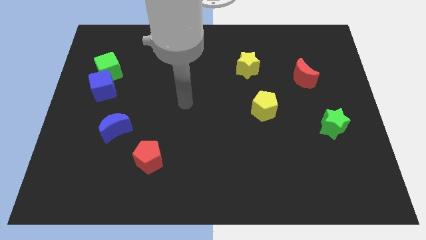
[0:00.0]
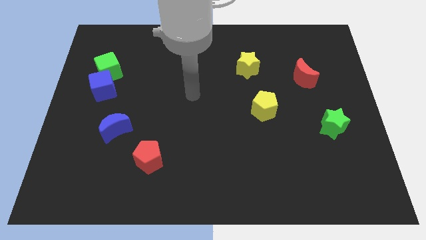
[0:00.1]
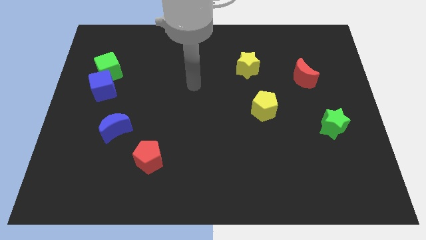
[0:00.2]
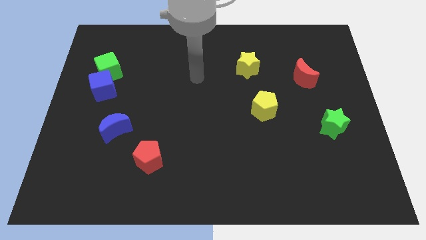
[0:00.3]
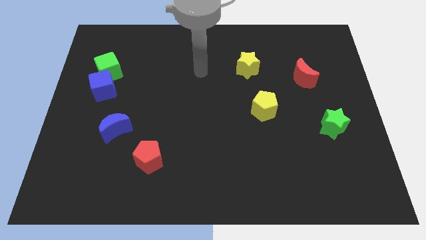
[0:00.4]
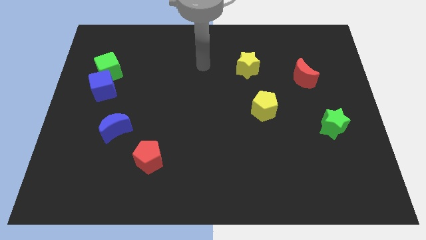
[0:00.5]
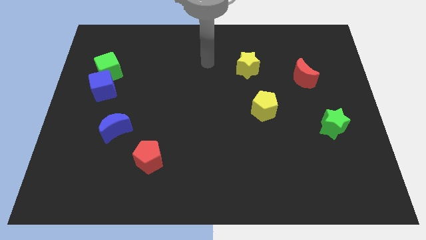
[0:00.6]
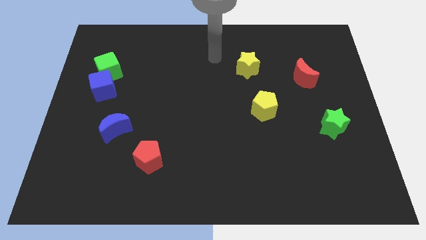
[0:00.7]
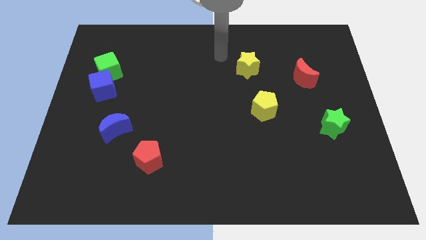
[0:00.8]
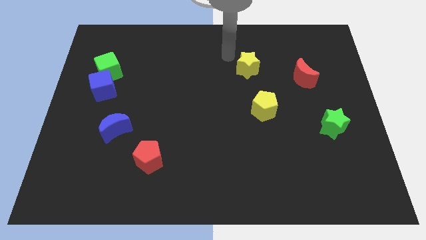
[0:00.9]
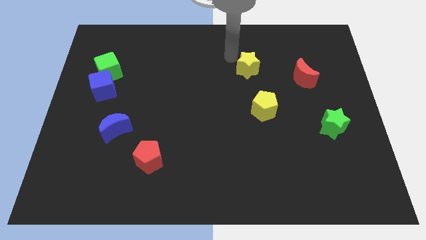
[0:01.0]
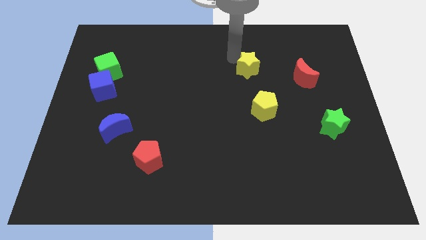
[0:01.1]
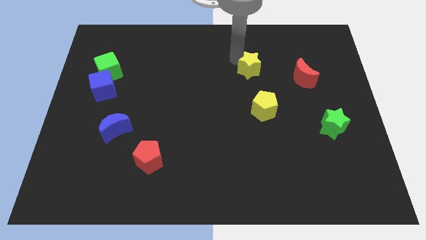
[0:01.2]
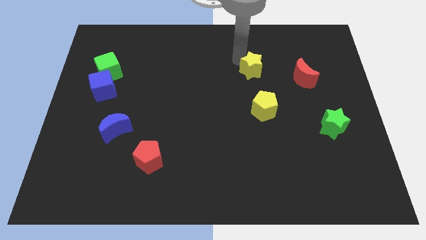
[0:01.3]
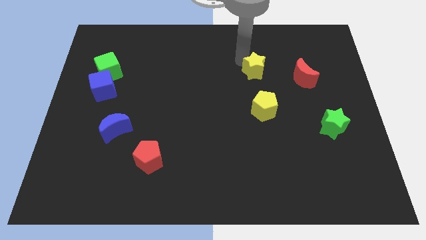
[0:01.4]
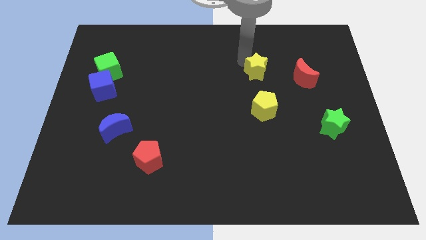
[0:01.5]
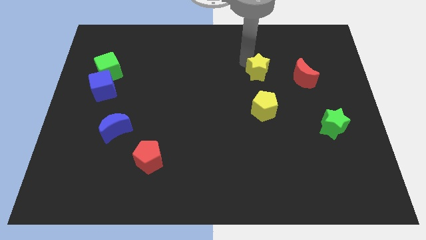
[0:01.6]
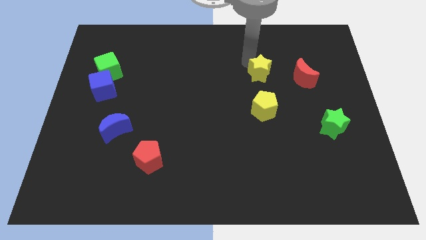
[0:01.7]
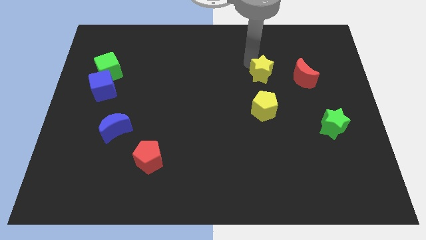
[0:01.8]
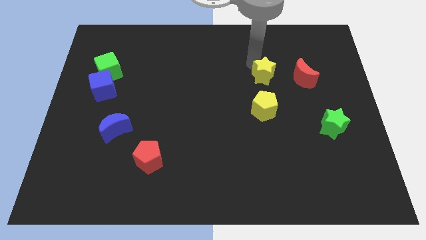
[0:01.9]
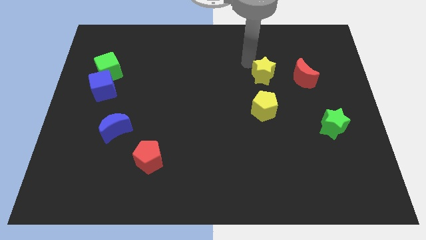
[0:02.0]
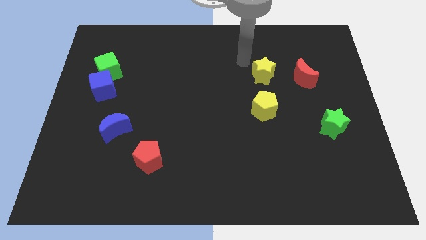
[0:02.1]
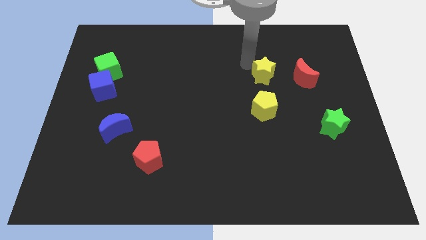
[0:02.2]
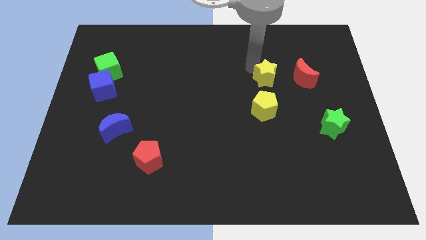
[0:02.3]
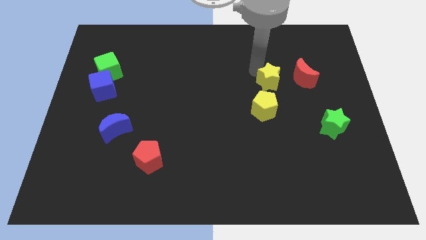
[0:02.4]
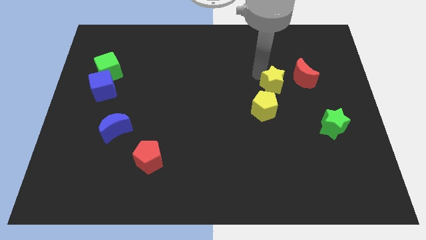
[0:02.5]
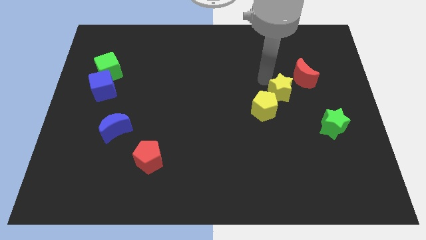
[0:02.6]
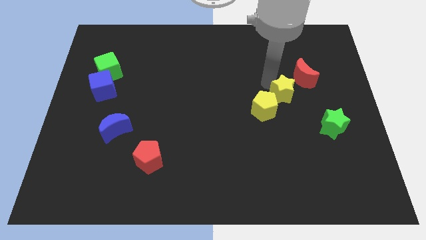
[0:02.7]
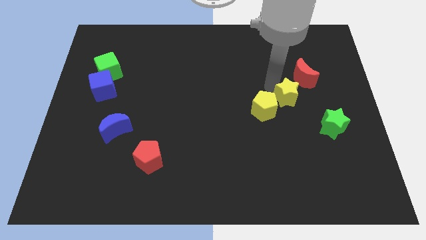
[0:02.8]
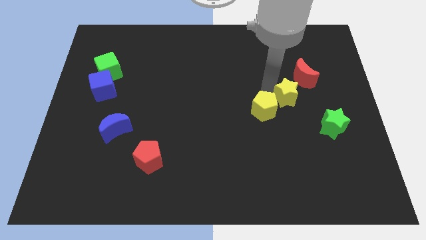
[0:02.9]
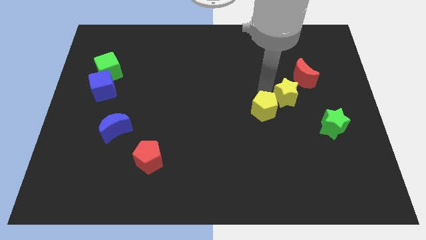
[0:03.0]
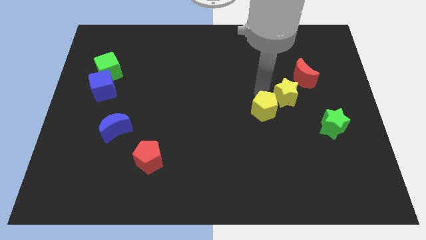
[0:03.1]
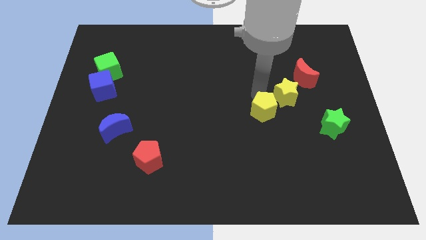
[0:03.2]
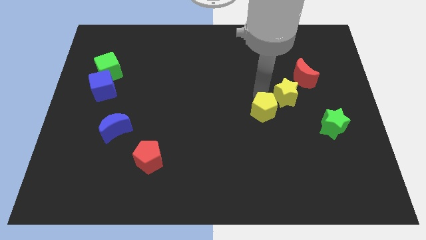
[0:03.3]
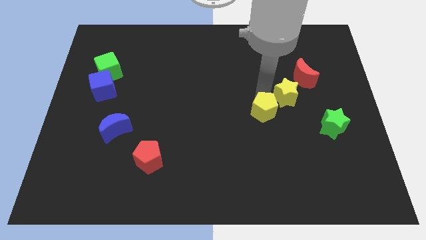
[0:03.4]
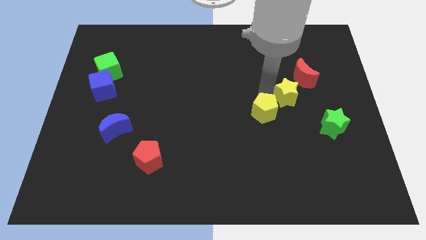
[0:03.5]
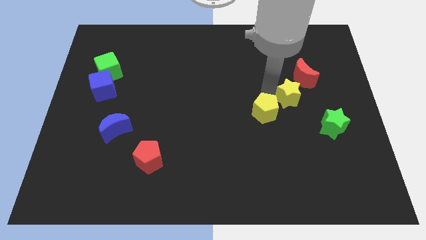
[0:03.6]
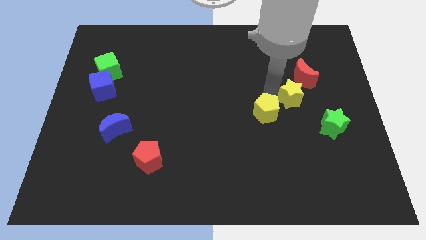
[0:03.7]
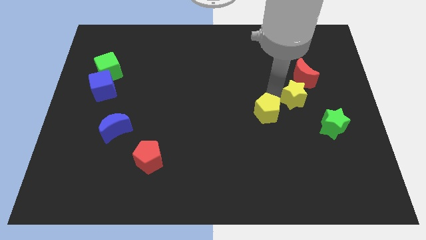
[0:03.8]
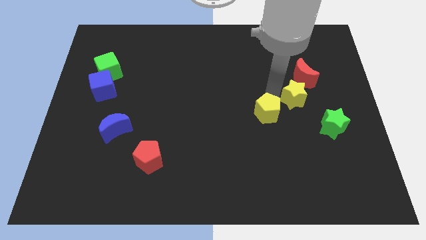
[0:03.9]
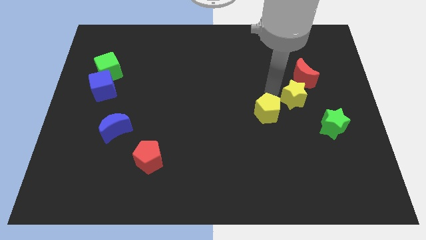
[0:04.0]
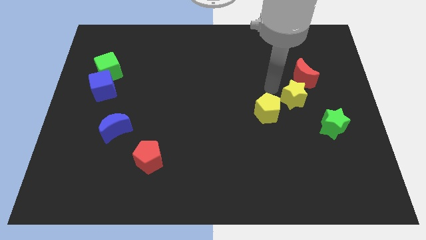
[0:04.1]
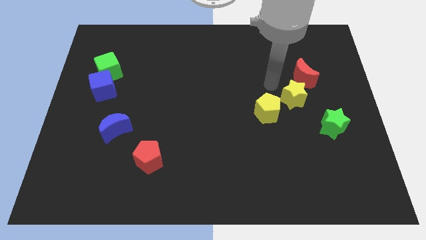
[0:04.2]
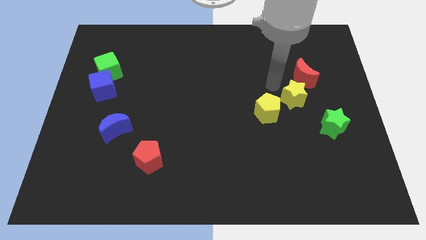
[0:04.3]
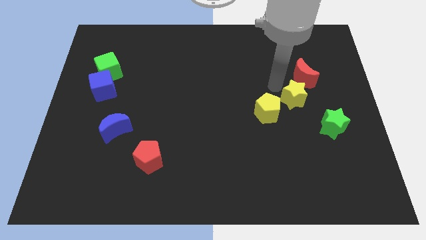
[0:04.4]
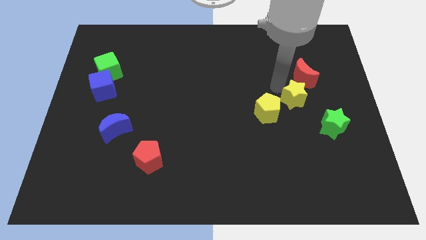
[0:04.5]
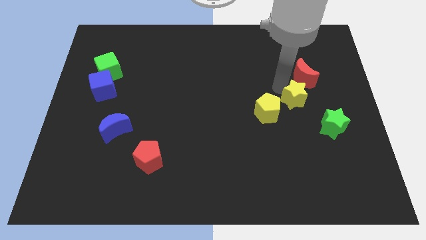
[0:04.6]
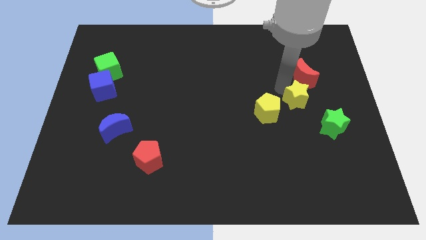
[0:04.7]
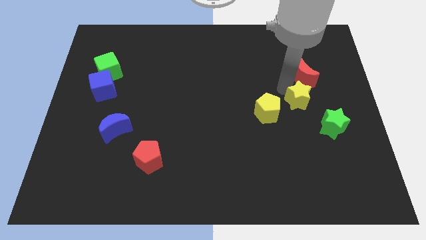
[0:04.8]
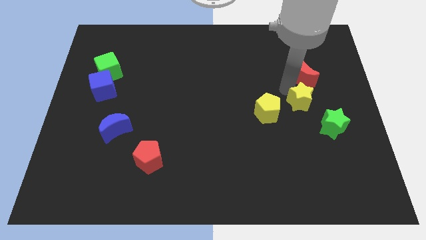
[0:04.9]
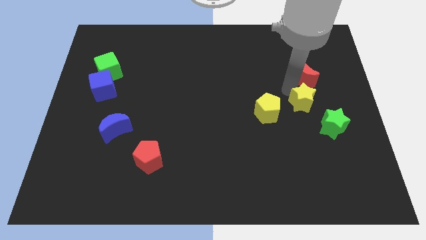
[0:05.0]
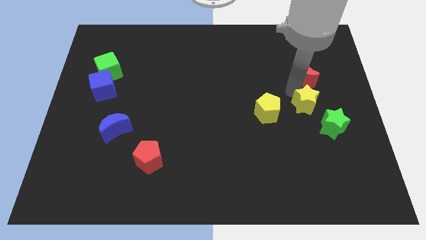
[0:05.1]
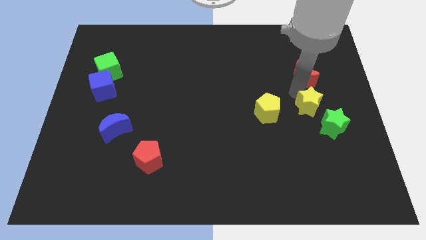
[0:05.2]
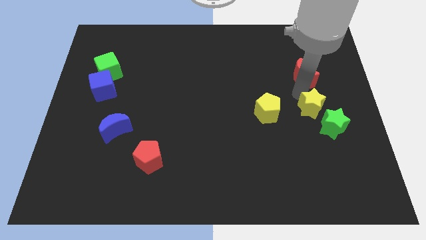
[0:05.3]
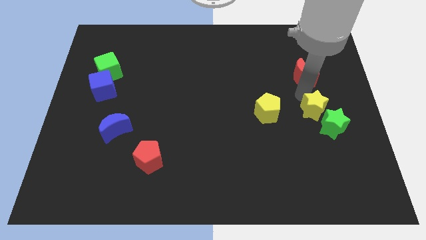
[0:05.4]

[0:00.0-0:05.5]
move the yellow star towards the green star

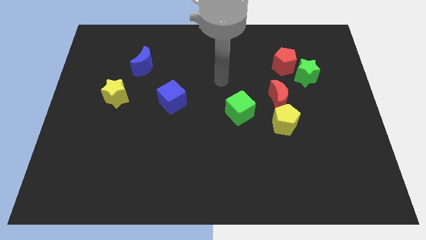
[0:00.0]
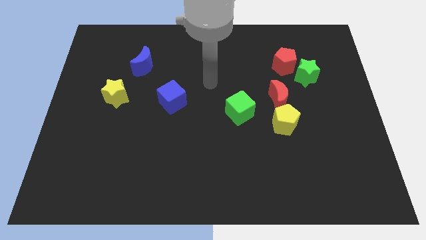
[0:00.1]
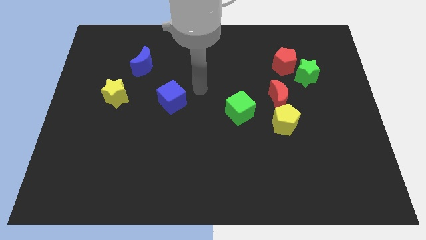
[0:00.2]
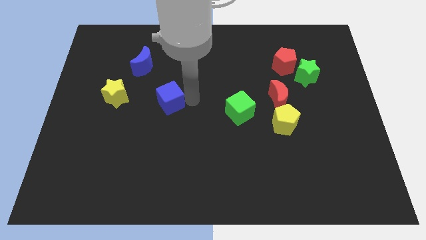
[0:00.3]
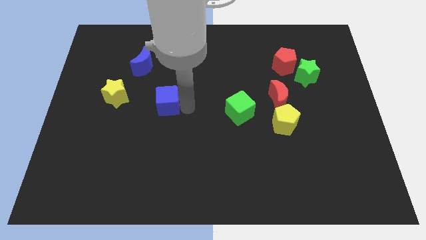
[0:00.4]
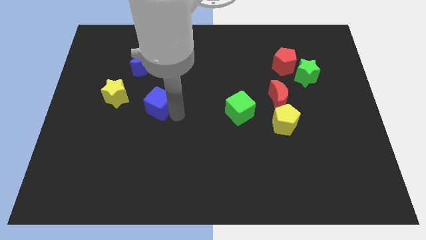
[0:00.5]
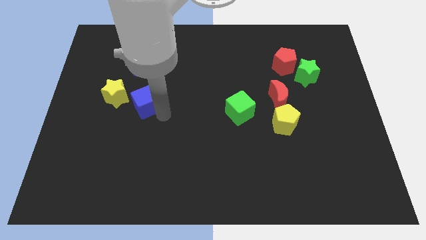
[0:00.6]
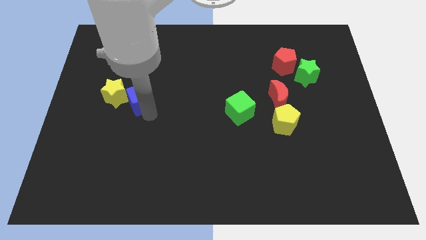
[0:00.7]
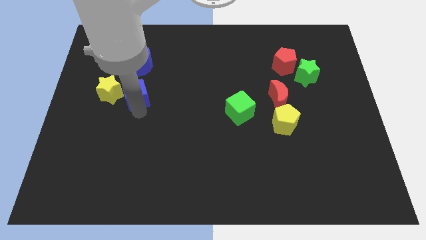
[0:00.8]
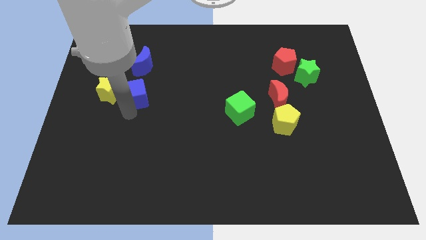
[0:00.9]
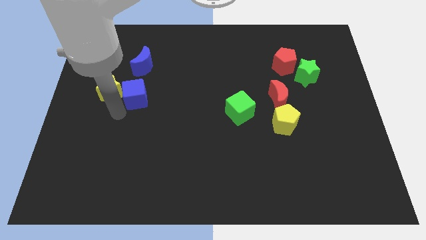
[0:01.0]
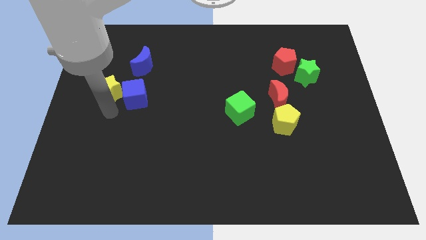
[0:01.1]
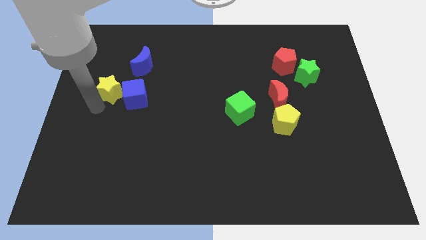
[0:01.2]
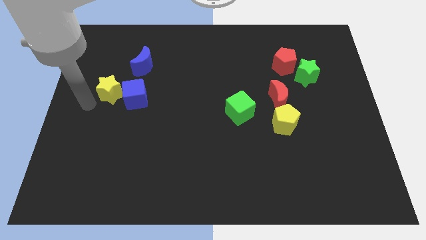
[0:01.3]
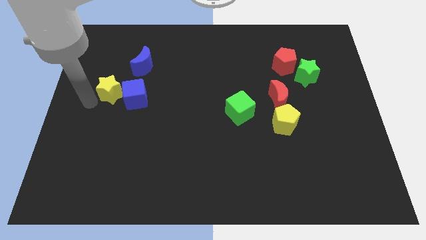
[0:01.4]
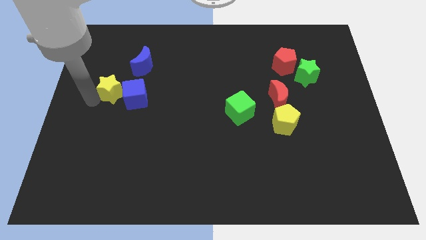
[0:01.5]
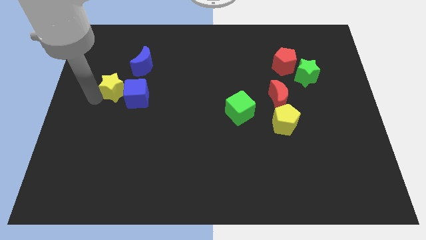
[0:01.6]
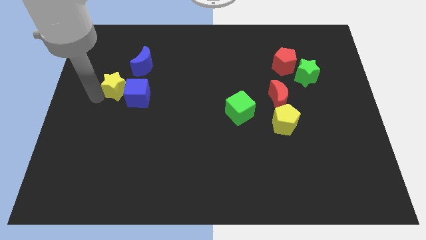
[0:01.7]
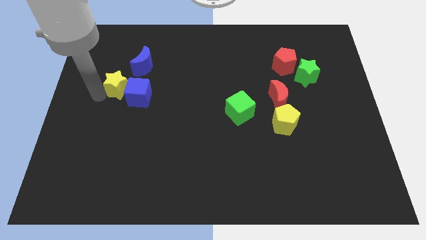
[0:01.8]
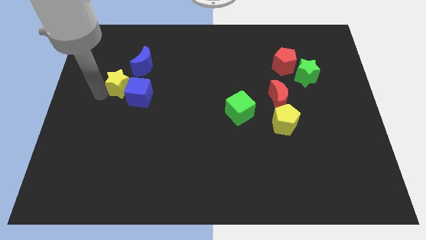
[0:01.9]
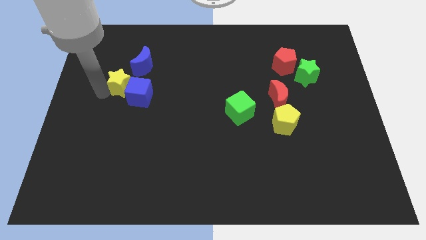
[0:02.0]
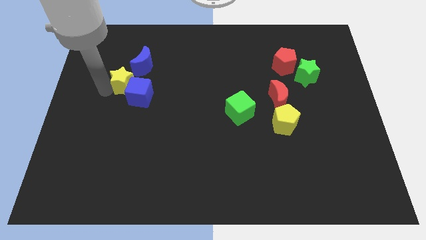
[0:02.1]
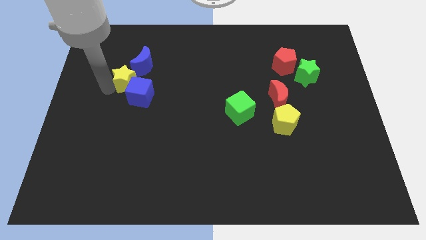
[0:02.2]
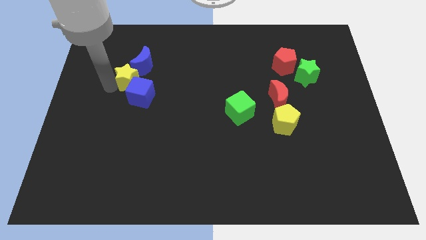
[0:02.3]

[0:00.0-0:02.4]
push the yellow star next to the blue moon
